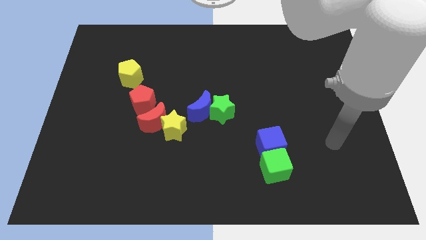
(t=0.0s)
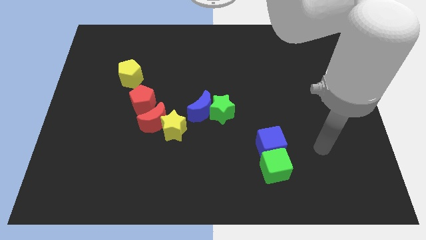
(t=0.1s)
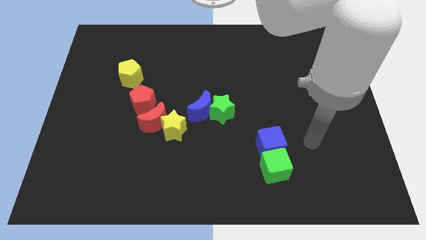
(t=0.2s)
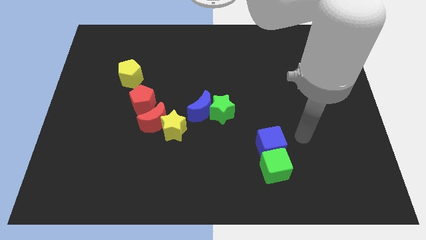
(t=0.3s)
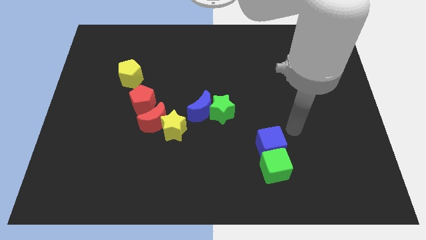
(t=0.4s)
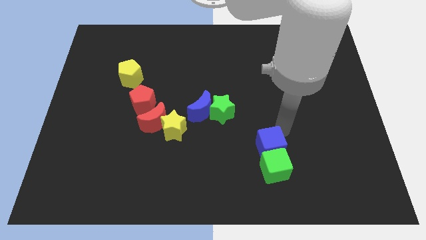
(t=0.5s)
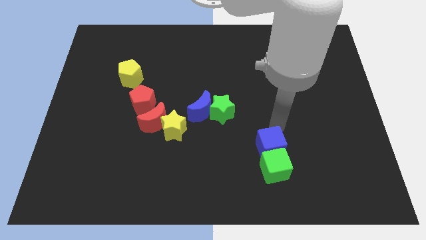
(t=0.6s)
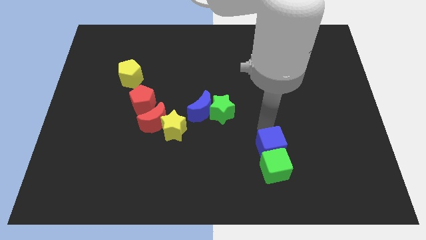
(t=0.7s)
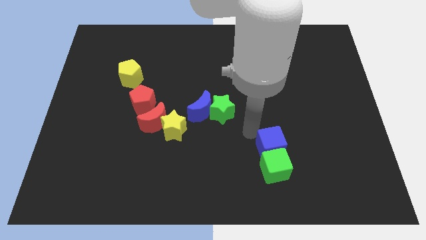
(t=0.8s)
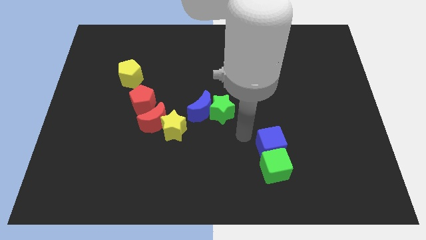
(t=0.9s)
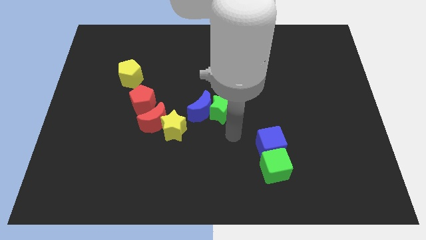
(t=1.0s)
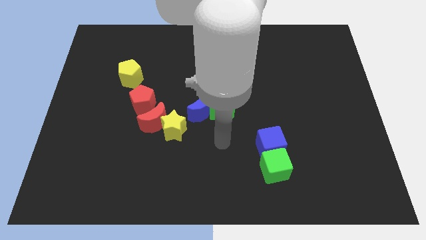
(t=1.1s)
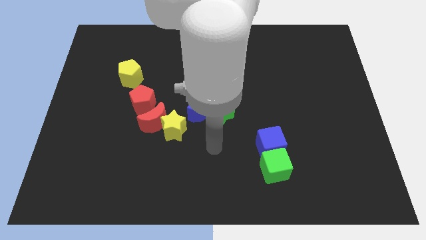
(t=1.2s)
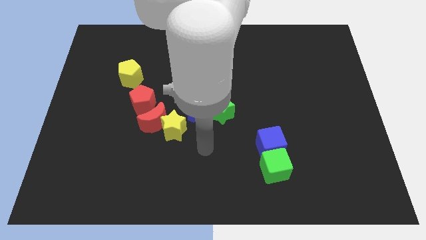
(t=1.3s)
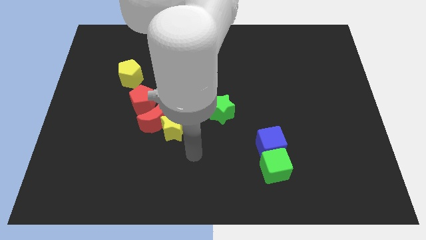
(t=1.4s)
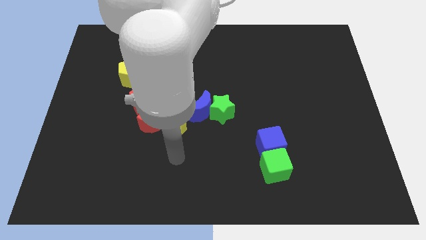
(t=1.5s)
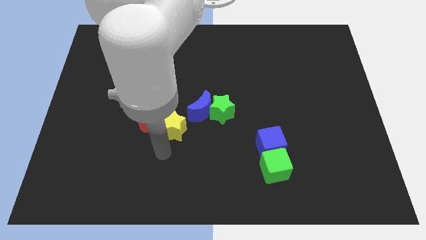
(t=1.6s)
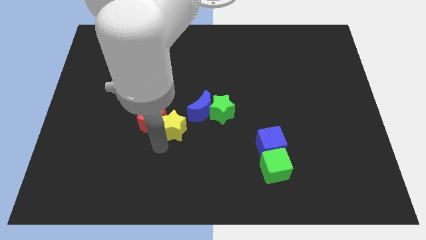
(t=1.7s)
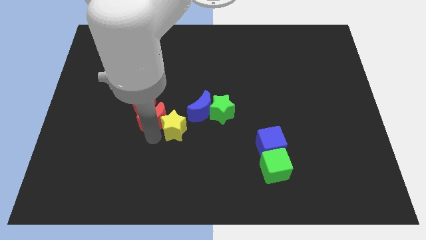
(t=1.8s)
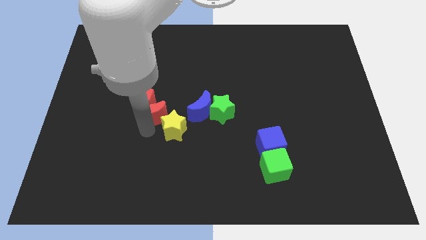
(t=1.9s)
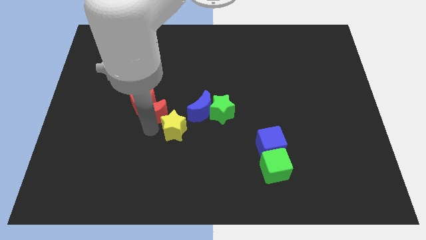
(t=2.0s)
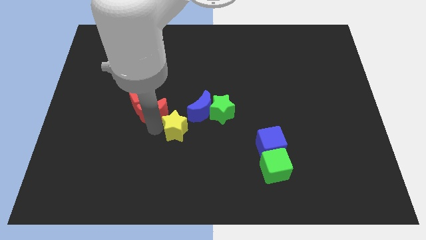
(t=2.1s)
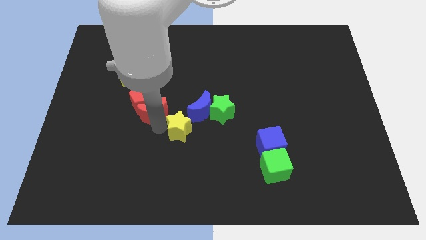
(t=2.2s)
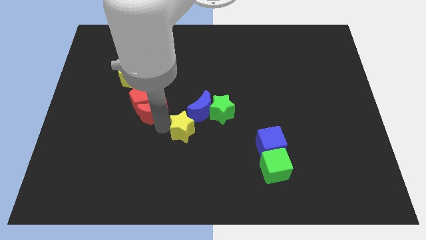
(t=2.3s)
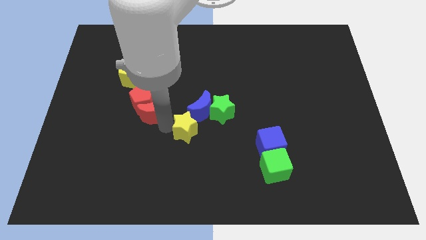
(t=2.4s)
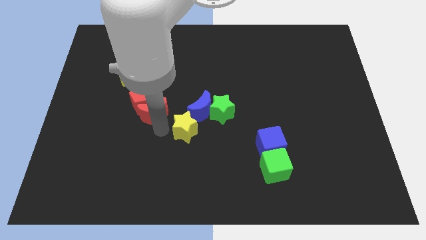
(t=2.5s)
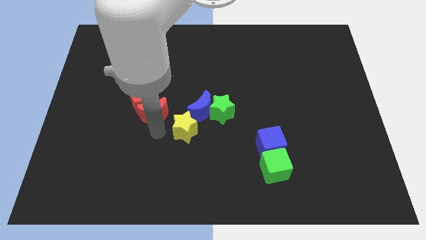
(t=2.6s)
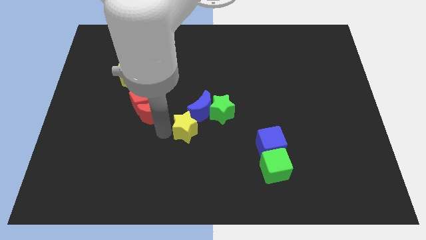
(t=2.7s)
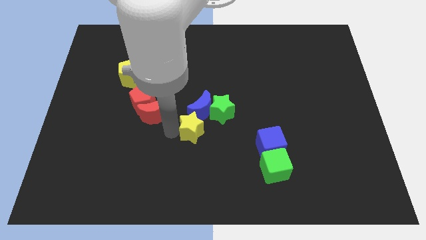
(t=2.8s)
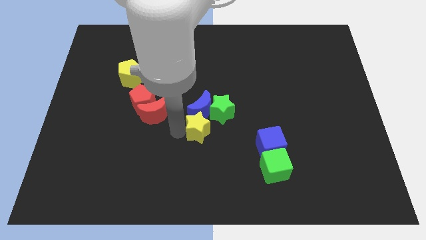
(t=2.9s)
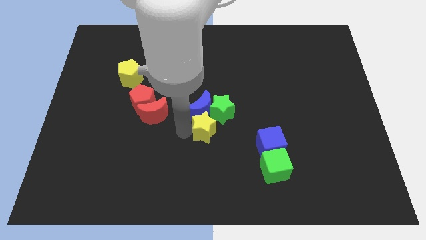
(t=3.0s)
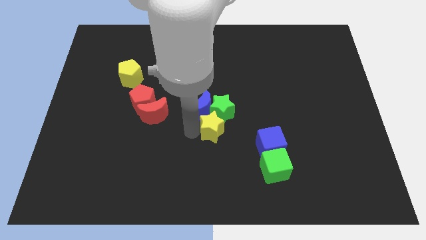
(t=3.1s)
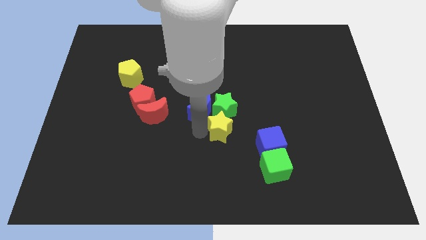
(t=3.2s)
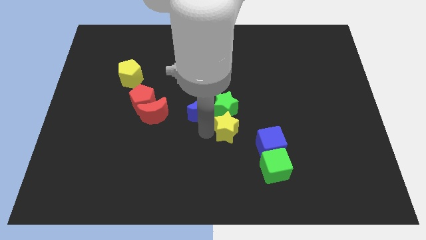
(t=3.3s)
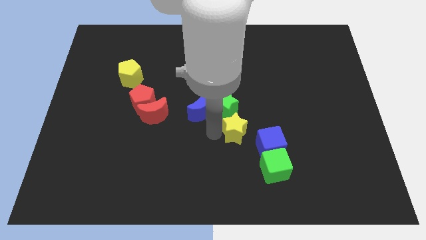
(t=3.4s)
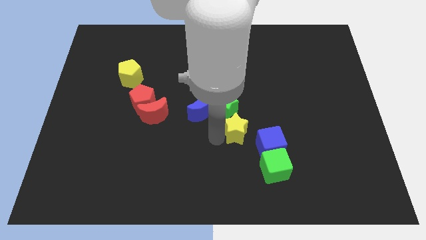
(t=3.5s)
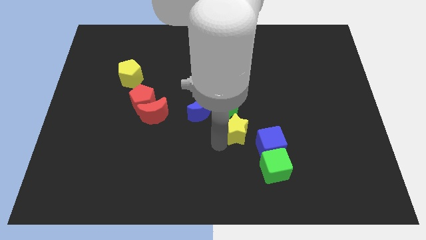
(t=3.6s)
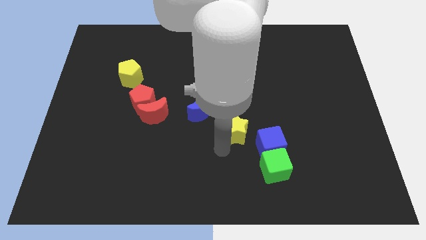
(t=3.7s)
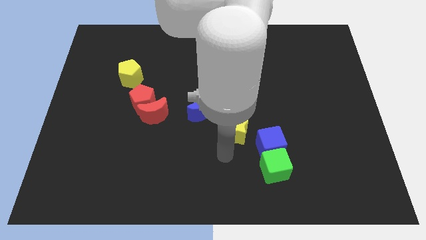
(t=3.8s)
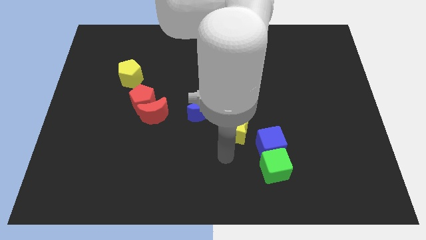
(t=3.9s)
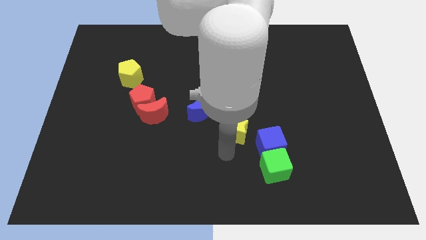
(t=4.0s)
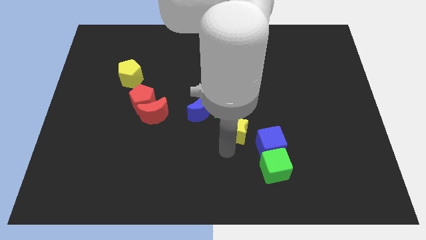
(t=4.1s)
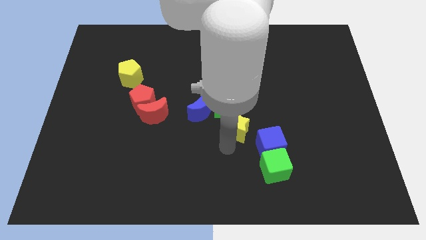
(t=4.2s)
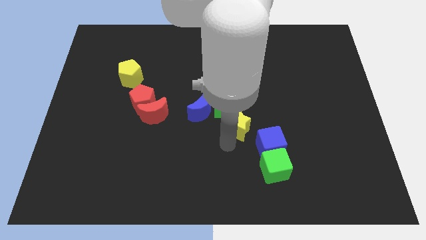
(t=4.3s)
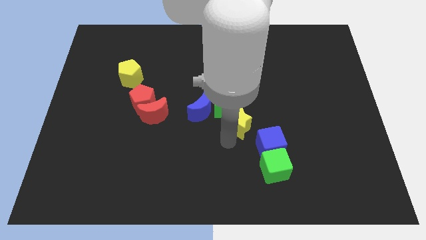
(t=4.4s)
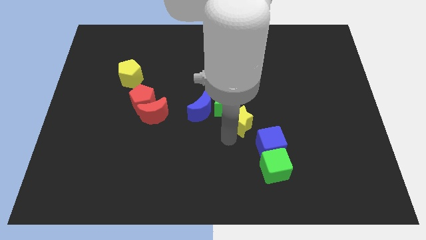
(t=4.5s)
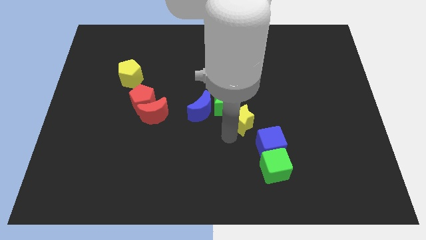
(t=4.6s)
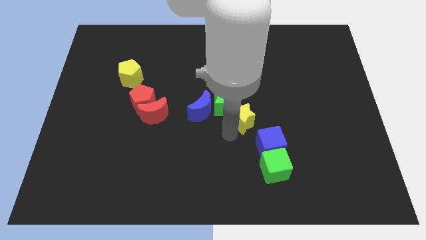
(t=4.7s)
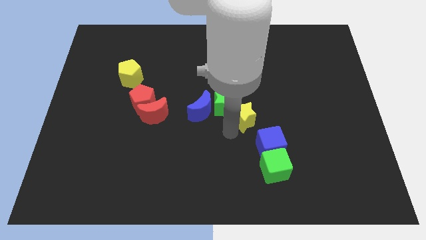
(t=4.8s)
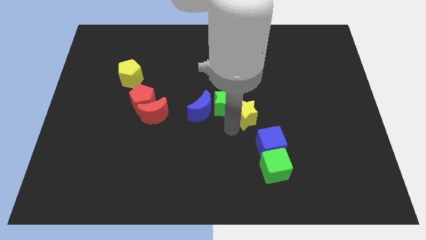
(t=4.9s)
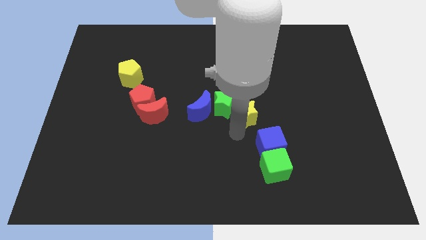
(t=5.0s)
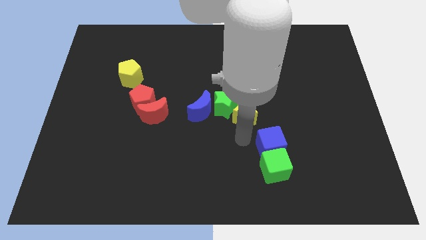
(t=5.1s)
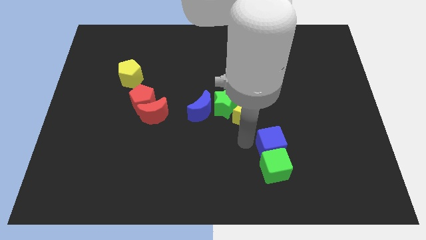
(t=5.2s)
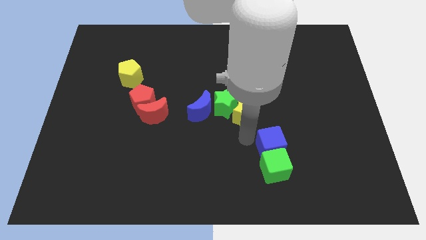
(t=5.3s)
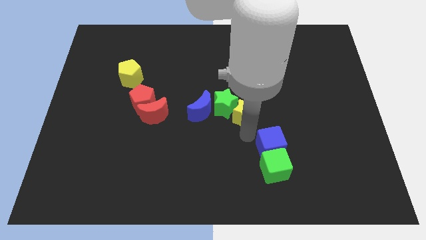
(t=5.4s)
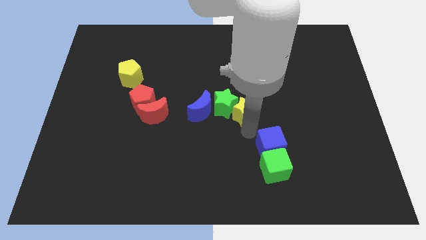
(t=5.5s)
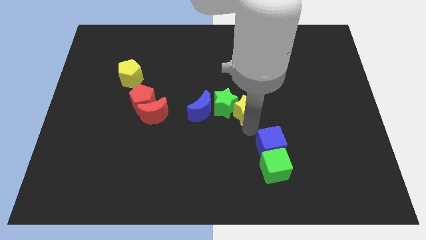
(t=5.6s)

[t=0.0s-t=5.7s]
move the yellow star to the top right of the green star

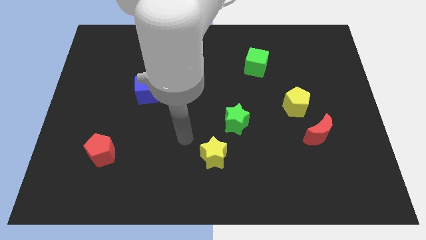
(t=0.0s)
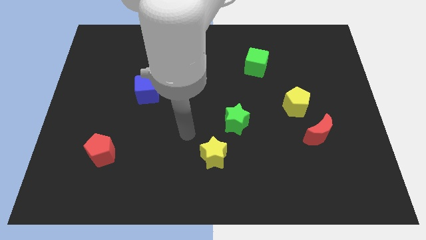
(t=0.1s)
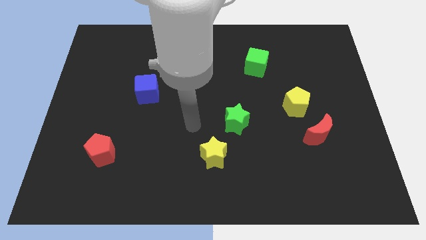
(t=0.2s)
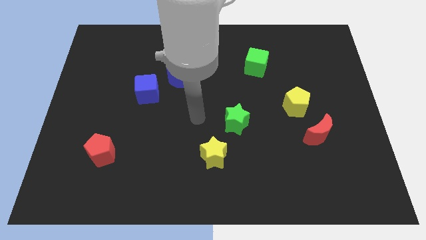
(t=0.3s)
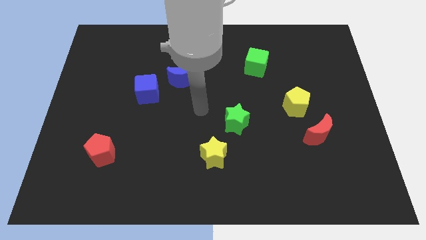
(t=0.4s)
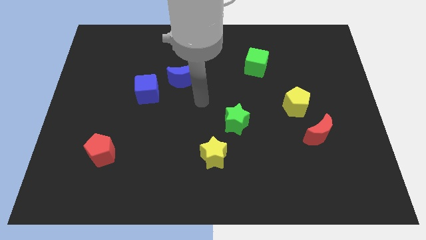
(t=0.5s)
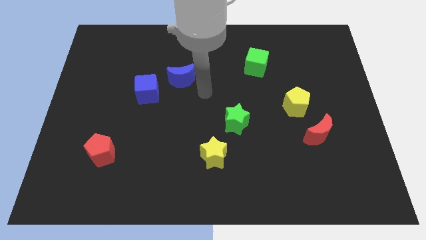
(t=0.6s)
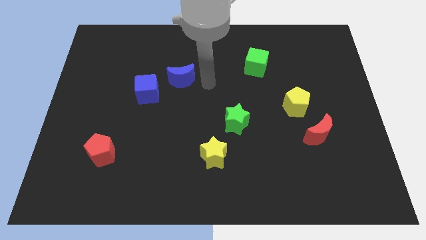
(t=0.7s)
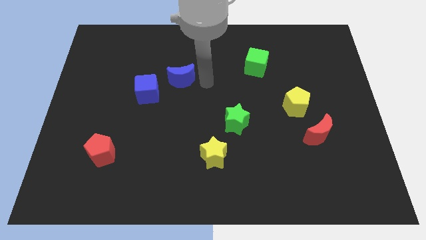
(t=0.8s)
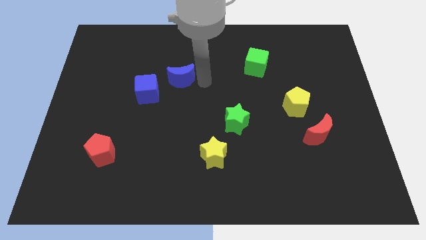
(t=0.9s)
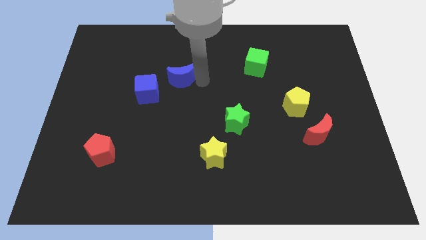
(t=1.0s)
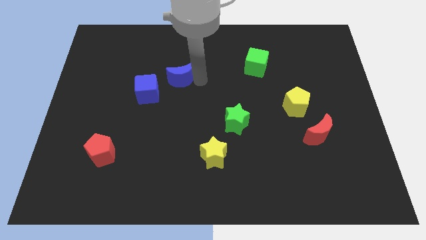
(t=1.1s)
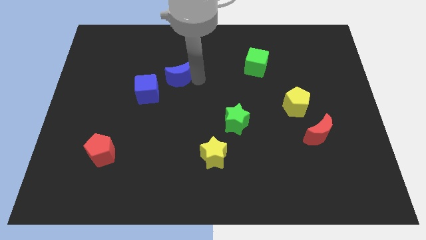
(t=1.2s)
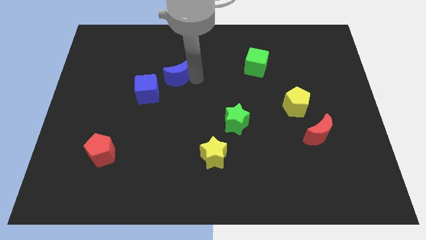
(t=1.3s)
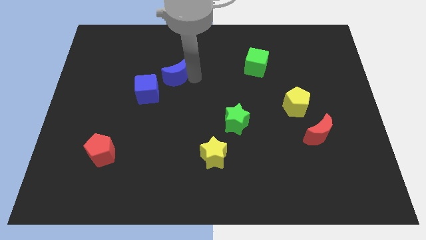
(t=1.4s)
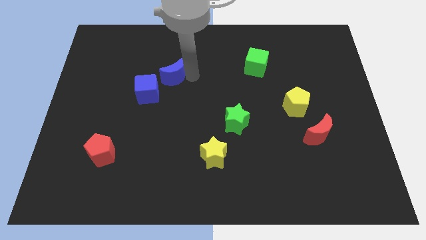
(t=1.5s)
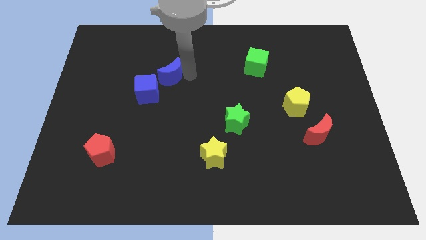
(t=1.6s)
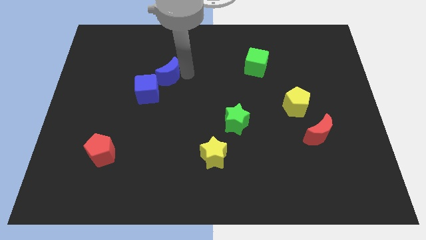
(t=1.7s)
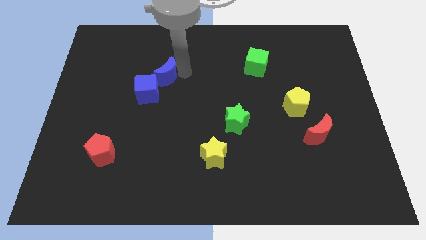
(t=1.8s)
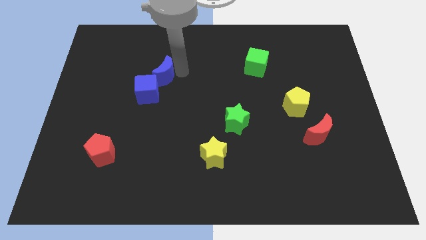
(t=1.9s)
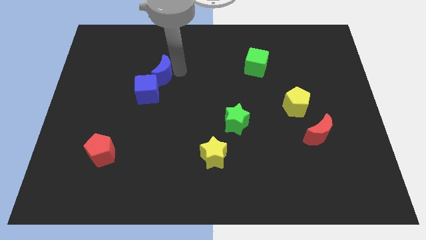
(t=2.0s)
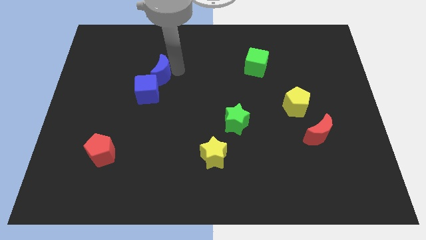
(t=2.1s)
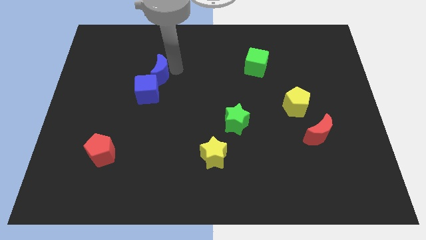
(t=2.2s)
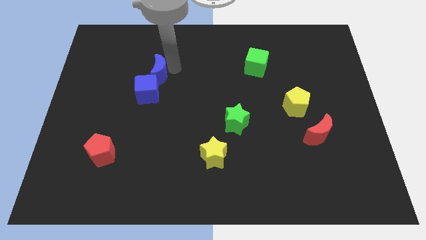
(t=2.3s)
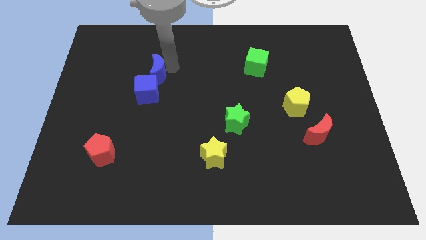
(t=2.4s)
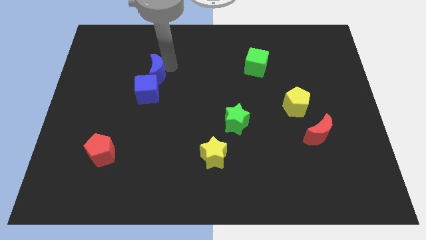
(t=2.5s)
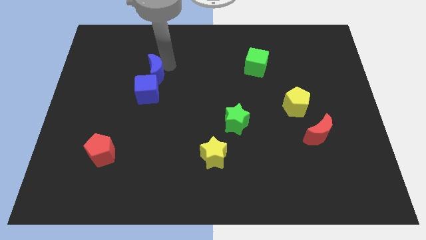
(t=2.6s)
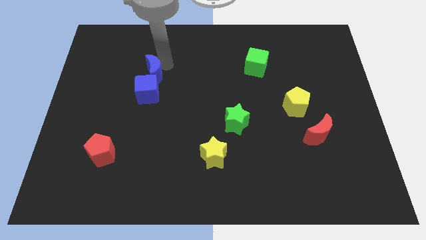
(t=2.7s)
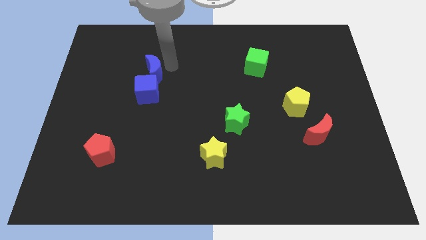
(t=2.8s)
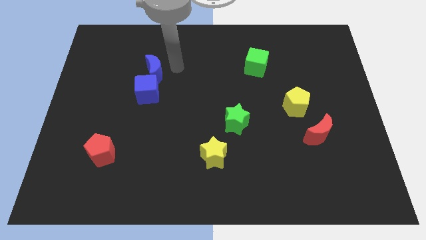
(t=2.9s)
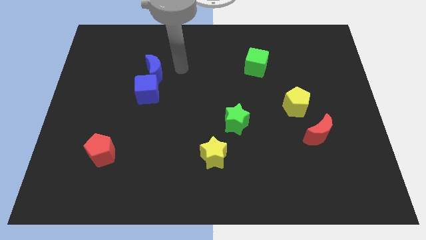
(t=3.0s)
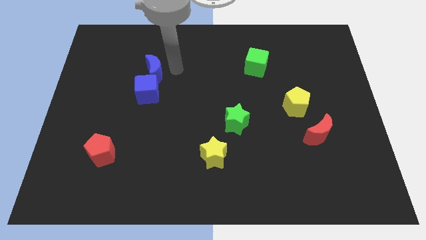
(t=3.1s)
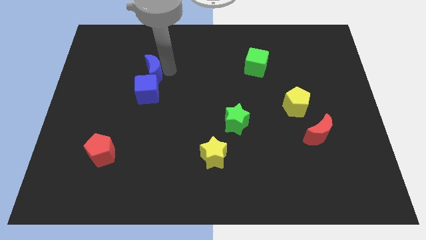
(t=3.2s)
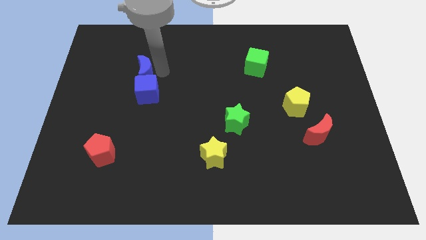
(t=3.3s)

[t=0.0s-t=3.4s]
put the blue moon to the top left of the blue cube
